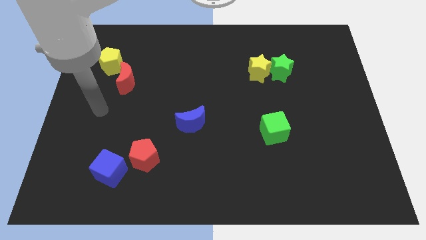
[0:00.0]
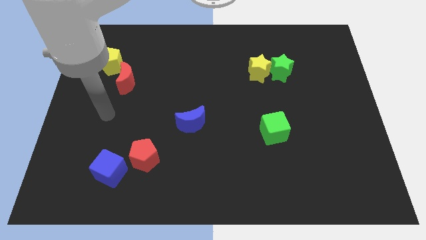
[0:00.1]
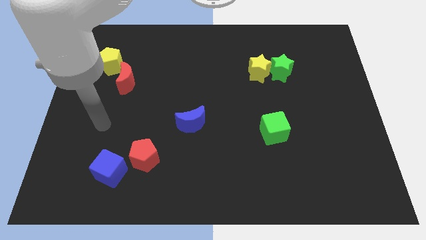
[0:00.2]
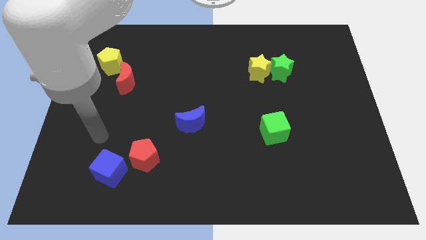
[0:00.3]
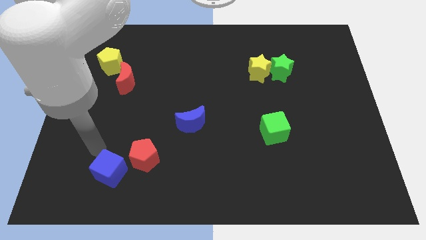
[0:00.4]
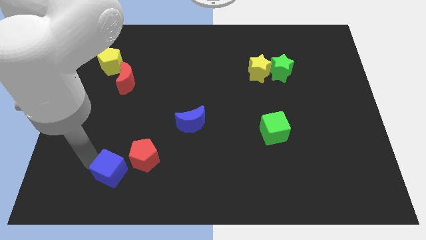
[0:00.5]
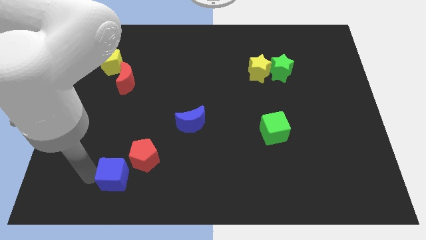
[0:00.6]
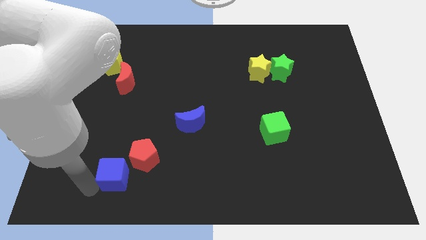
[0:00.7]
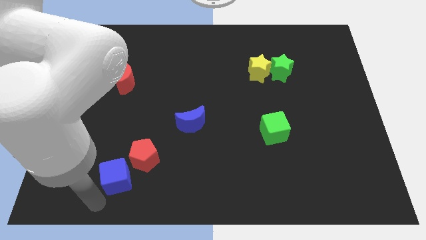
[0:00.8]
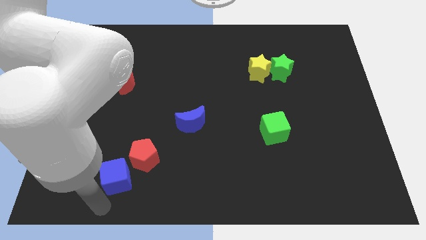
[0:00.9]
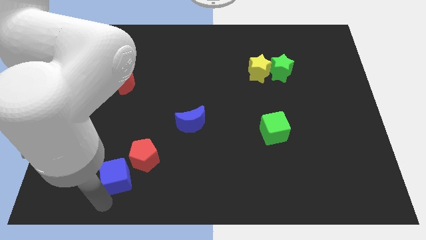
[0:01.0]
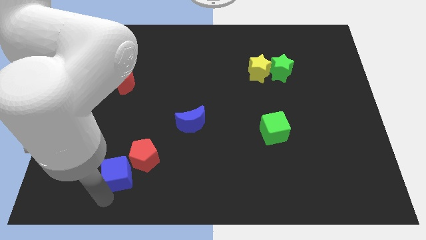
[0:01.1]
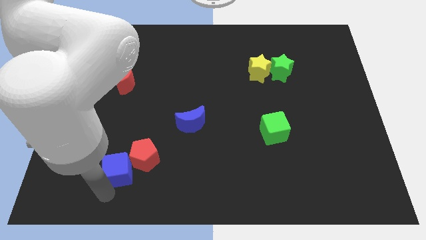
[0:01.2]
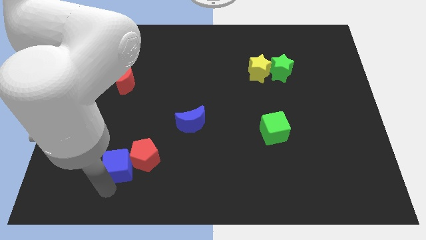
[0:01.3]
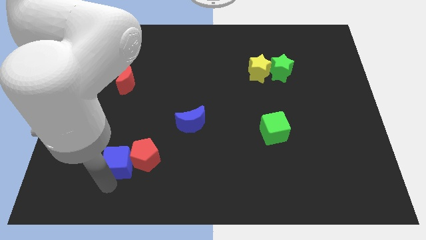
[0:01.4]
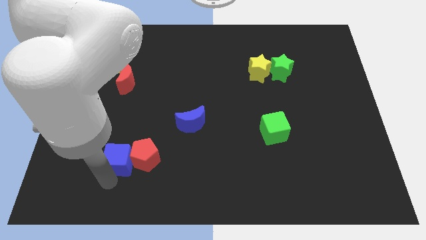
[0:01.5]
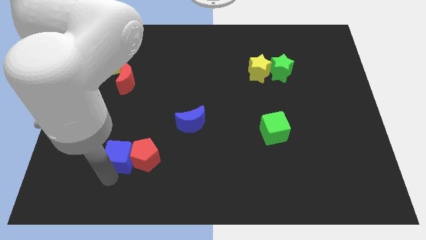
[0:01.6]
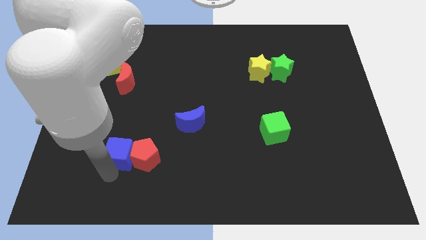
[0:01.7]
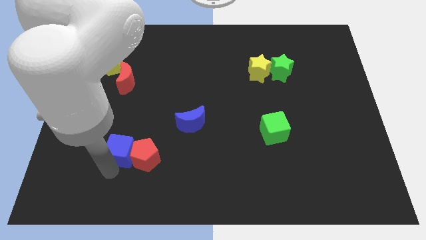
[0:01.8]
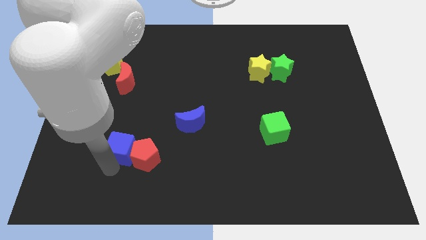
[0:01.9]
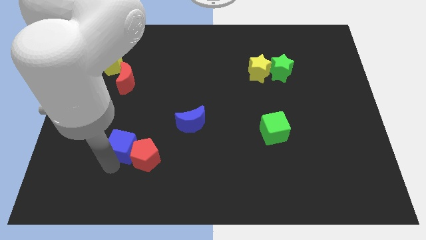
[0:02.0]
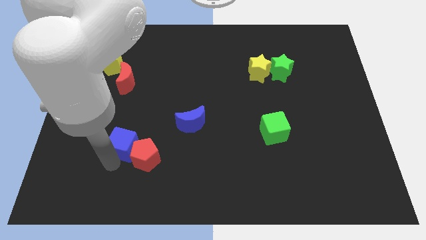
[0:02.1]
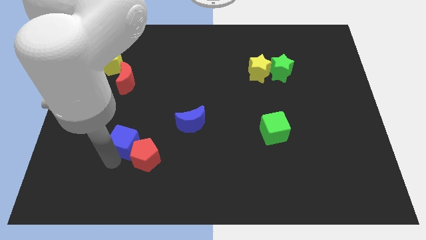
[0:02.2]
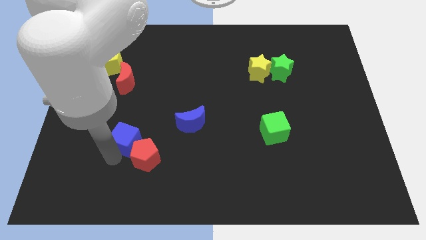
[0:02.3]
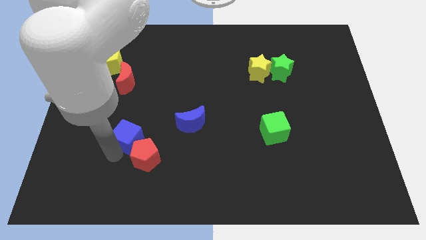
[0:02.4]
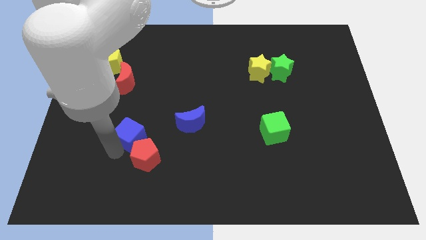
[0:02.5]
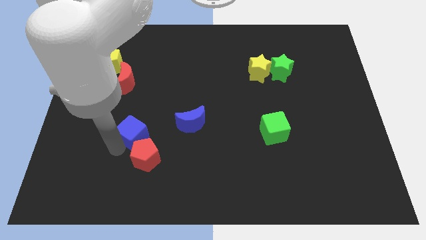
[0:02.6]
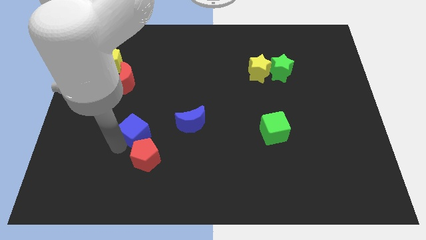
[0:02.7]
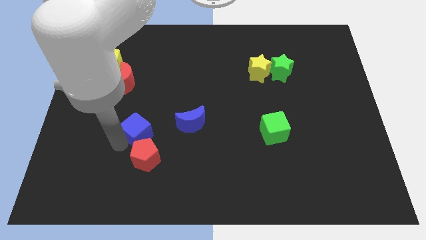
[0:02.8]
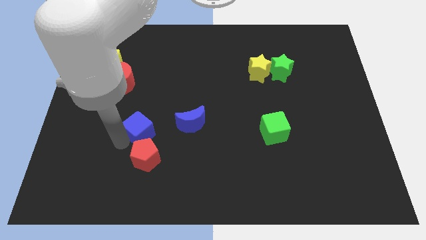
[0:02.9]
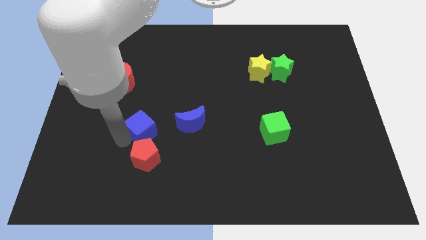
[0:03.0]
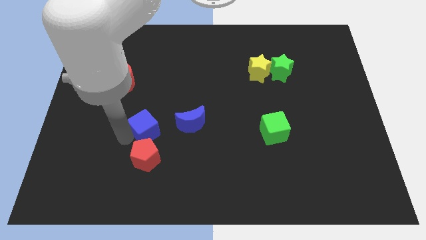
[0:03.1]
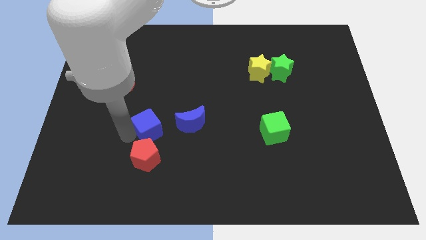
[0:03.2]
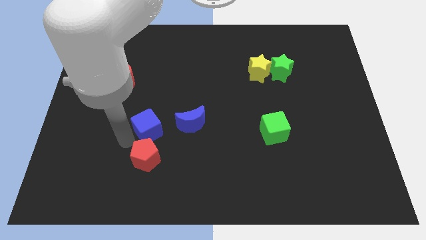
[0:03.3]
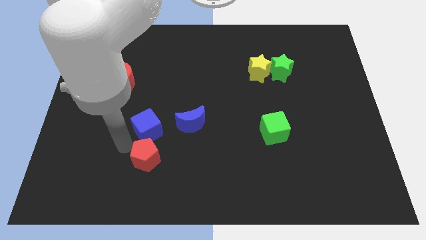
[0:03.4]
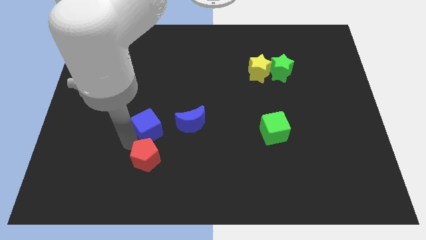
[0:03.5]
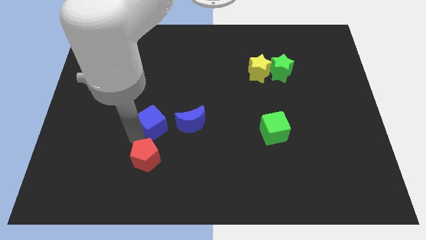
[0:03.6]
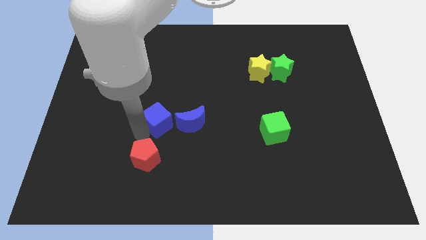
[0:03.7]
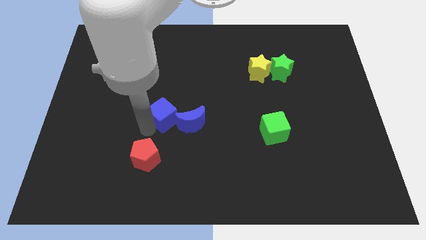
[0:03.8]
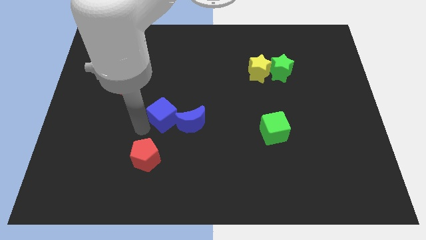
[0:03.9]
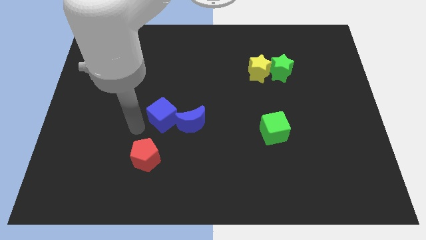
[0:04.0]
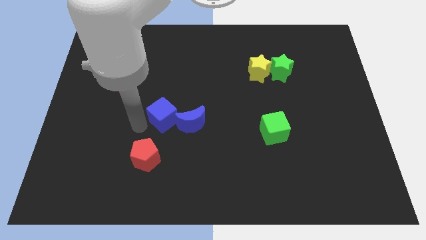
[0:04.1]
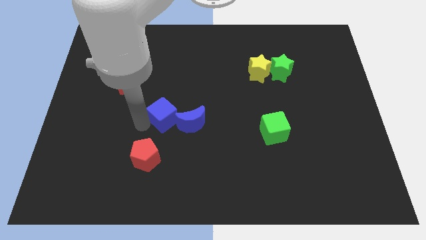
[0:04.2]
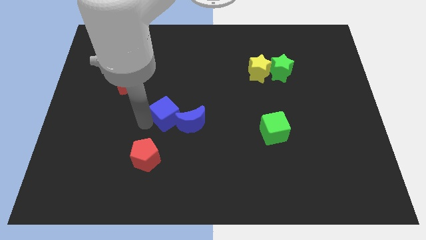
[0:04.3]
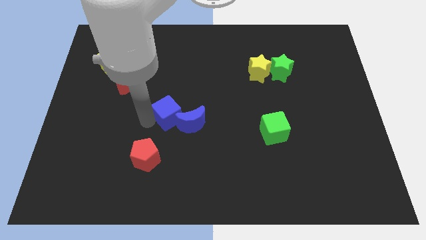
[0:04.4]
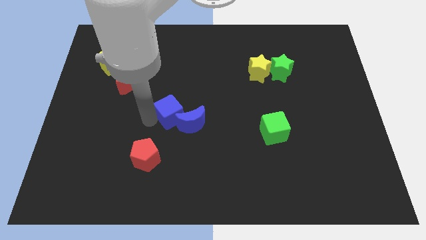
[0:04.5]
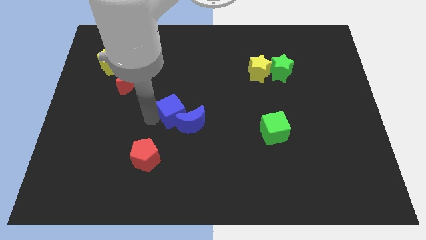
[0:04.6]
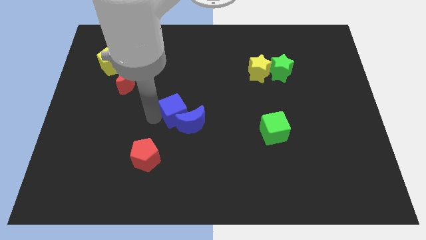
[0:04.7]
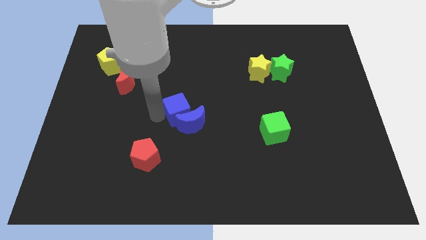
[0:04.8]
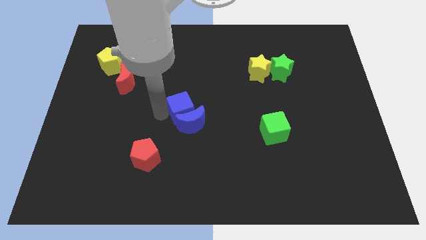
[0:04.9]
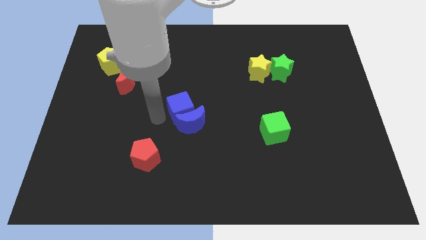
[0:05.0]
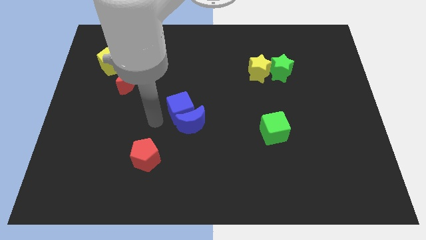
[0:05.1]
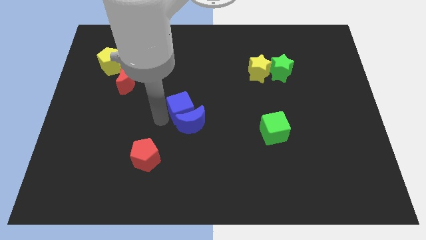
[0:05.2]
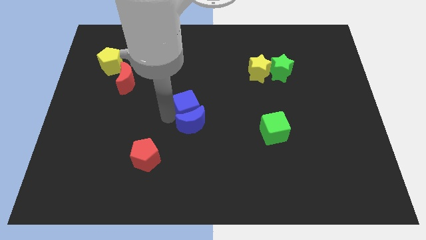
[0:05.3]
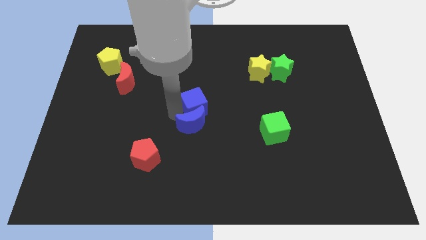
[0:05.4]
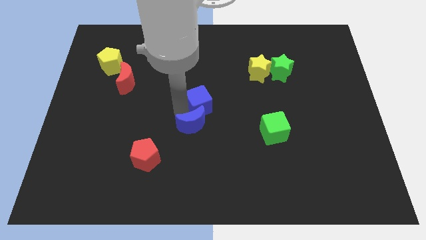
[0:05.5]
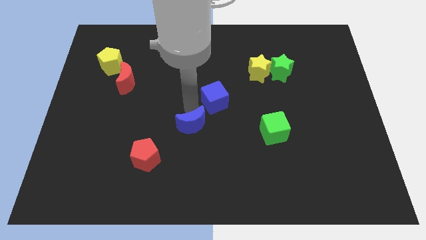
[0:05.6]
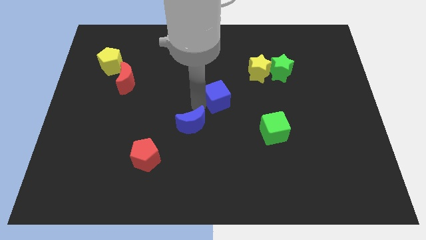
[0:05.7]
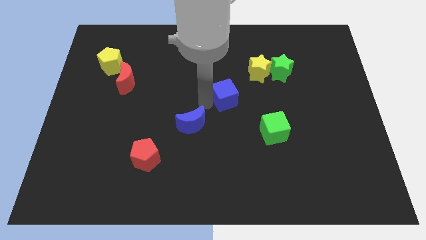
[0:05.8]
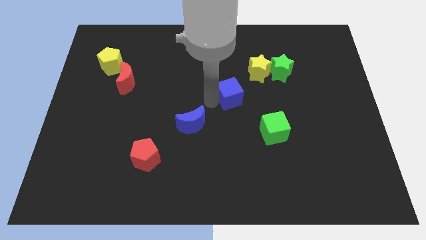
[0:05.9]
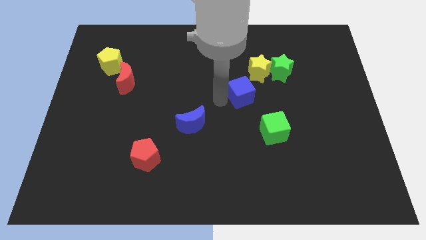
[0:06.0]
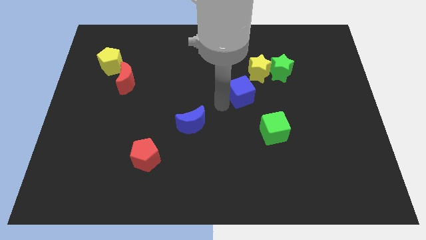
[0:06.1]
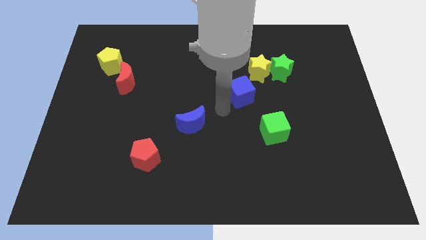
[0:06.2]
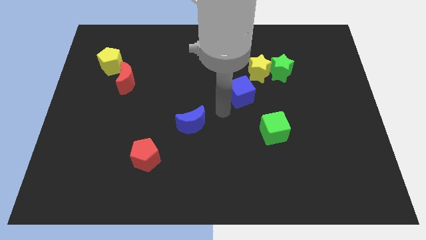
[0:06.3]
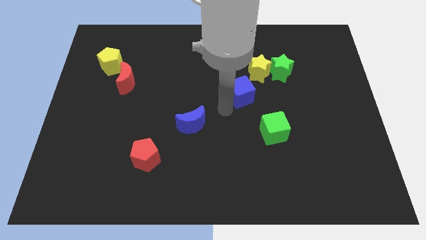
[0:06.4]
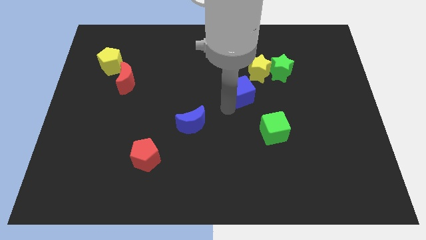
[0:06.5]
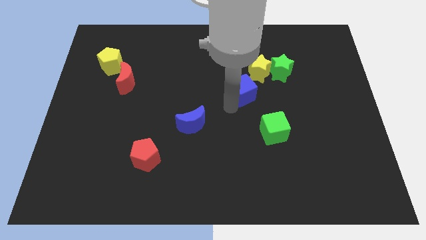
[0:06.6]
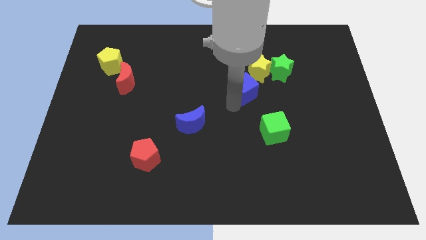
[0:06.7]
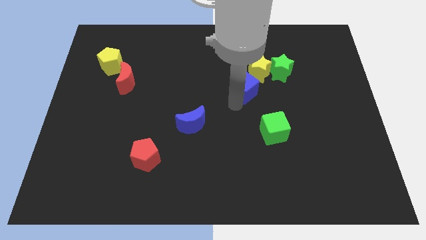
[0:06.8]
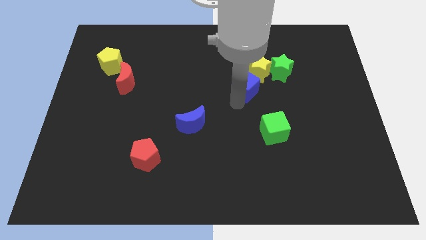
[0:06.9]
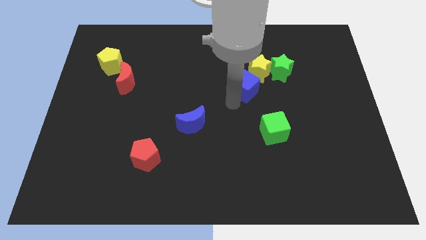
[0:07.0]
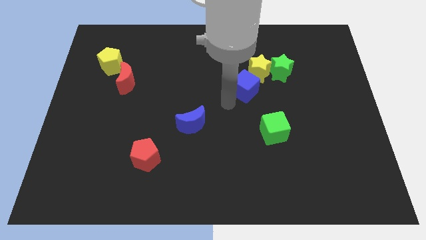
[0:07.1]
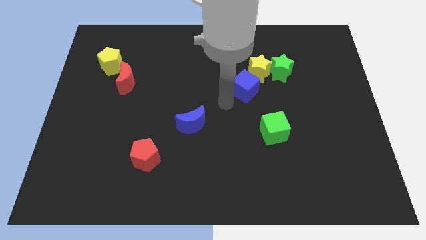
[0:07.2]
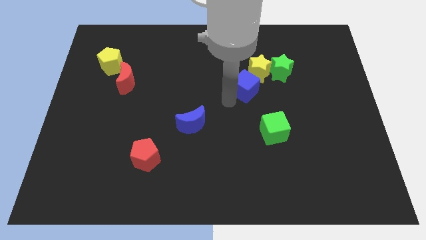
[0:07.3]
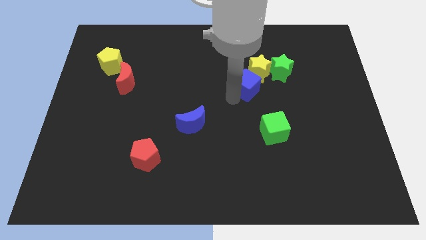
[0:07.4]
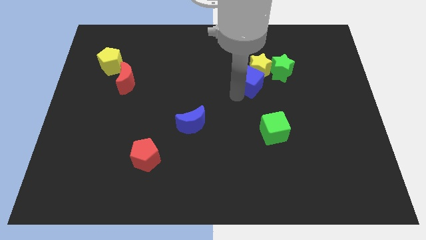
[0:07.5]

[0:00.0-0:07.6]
move the blue cube close to the yellow star

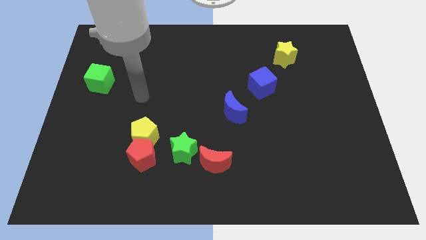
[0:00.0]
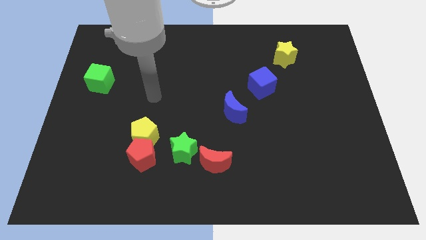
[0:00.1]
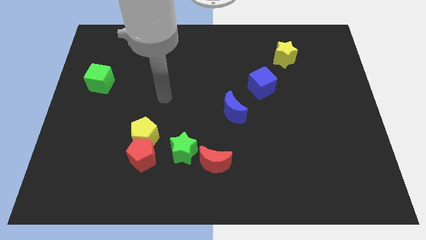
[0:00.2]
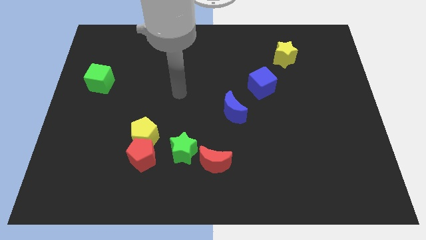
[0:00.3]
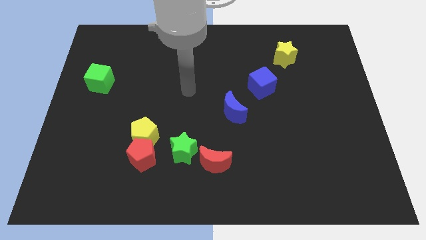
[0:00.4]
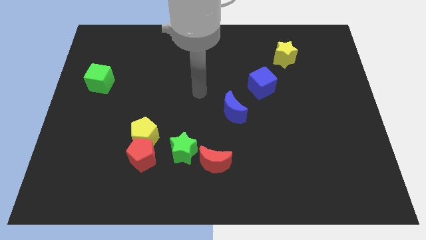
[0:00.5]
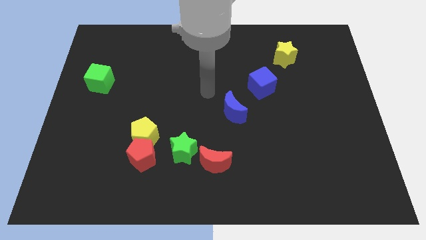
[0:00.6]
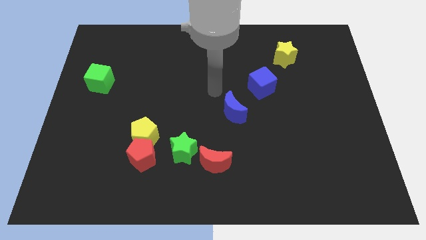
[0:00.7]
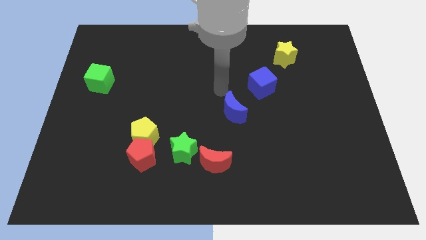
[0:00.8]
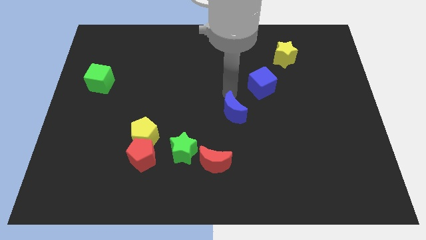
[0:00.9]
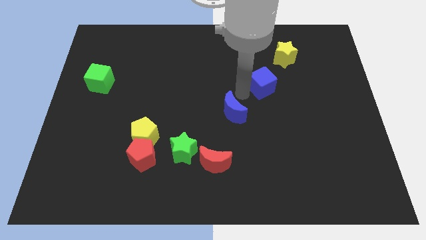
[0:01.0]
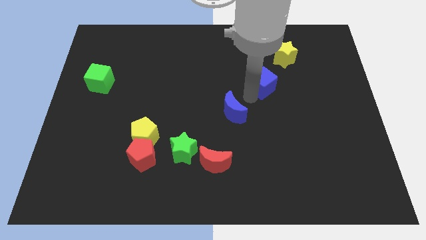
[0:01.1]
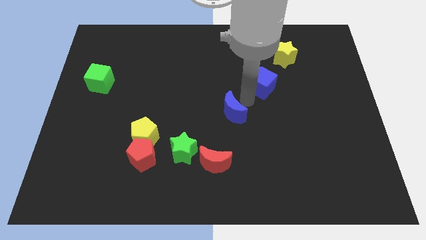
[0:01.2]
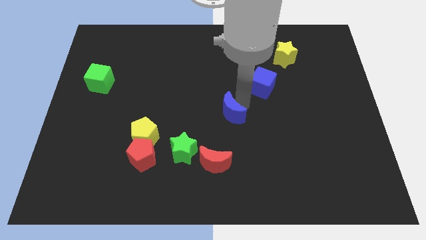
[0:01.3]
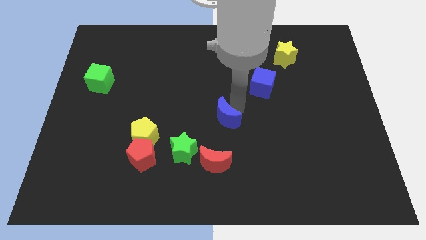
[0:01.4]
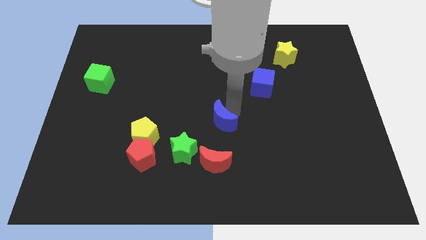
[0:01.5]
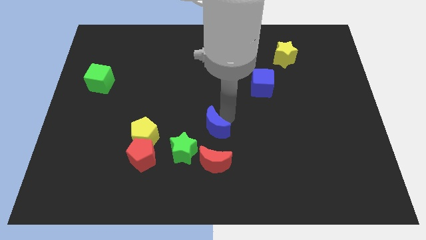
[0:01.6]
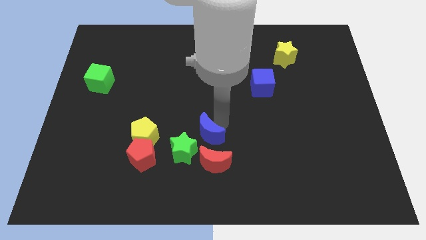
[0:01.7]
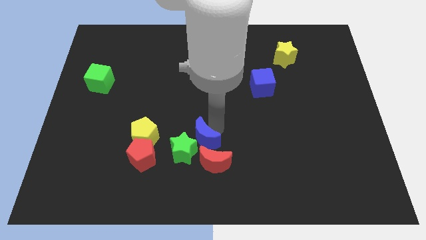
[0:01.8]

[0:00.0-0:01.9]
push the blue moon to the green star
